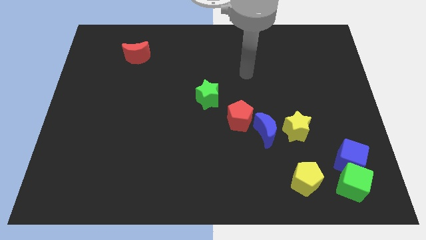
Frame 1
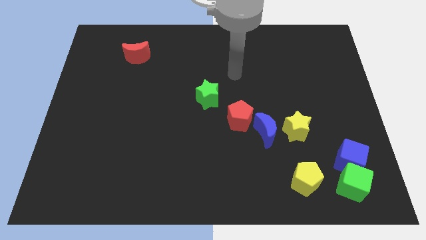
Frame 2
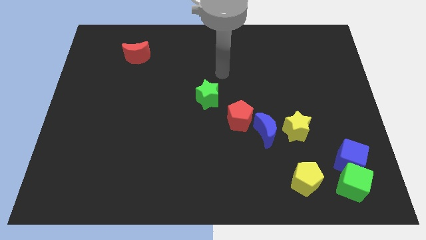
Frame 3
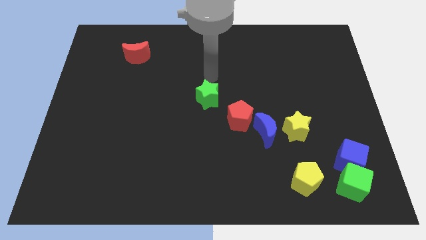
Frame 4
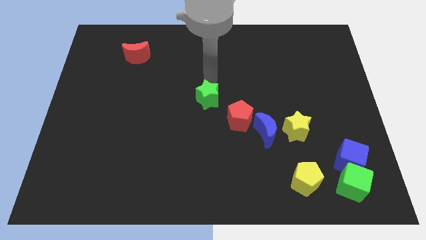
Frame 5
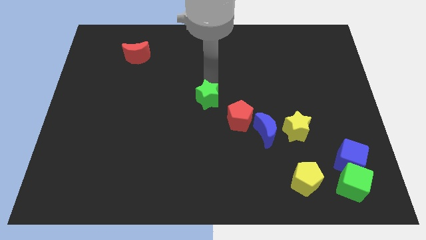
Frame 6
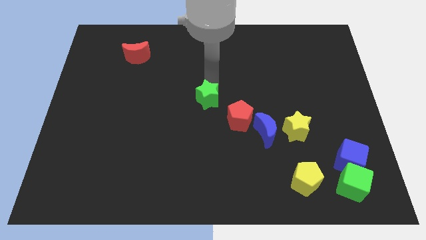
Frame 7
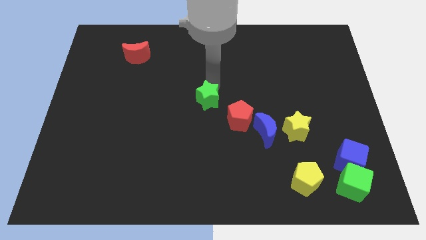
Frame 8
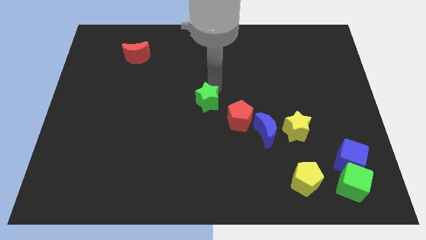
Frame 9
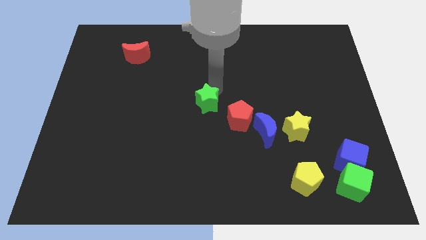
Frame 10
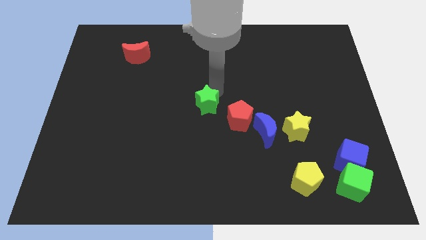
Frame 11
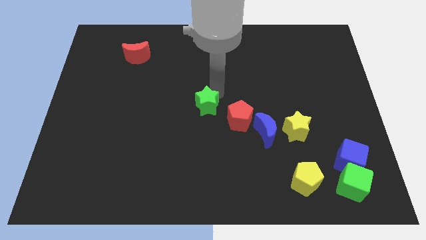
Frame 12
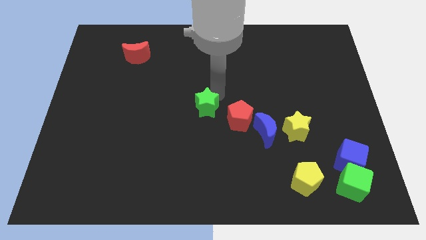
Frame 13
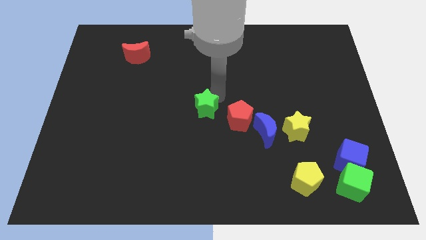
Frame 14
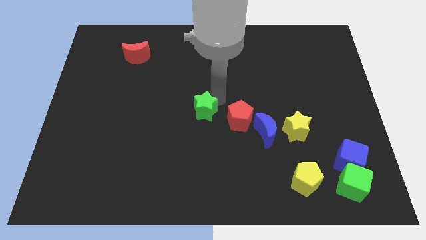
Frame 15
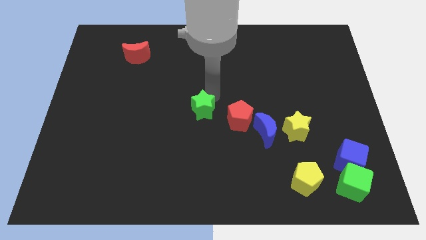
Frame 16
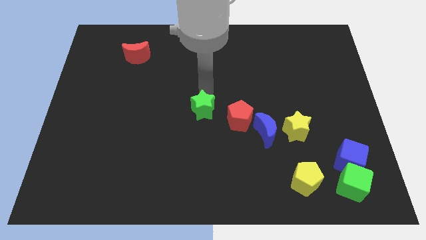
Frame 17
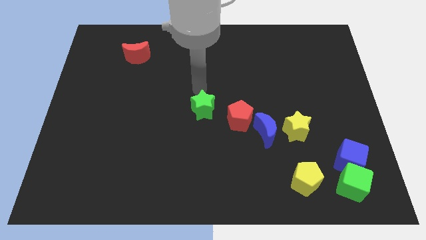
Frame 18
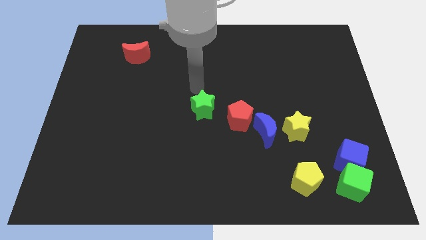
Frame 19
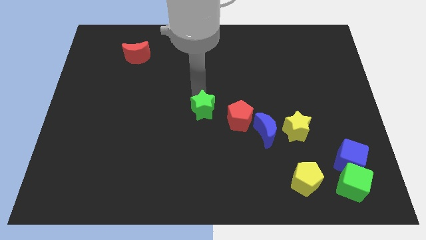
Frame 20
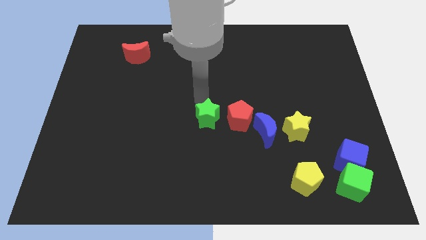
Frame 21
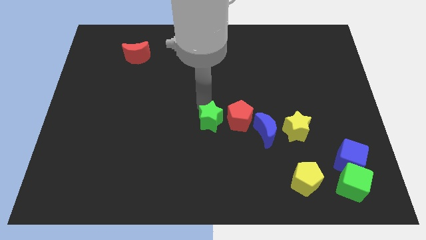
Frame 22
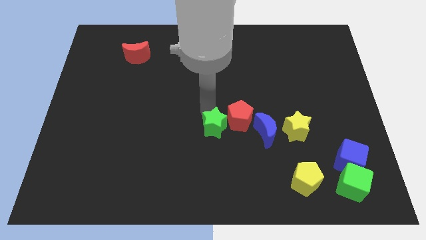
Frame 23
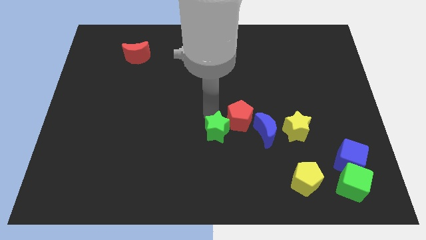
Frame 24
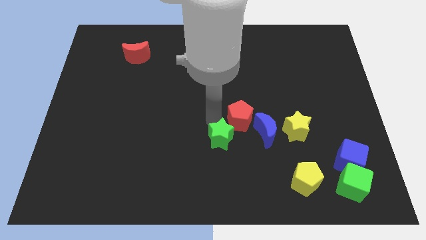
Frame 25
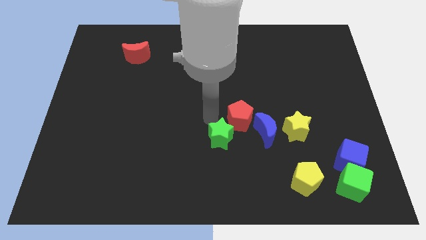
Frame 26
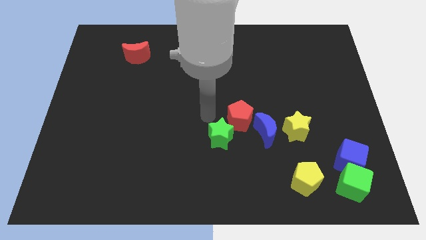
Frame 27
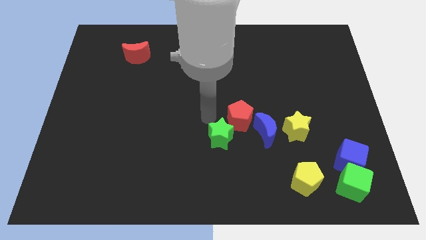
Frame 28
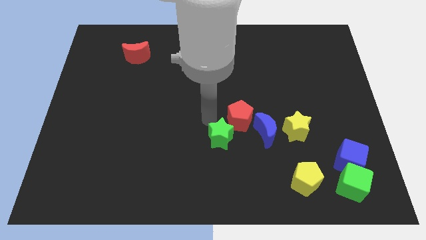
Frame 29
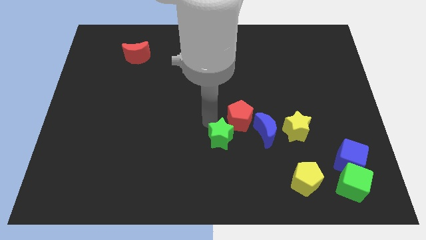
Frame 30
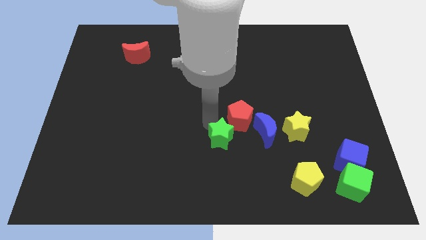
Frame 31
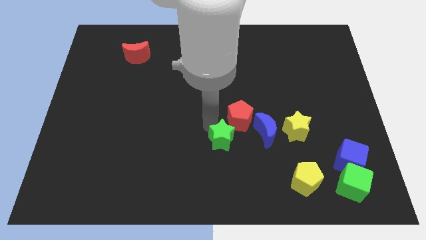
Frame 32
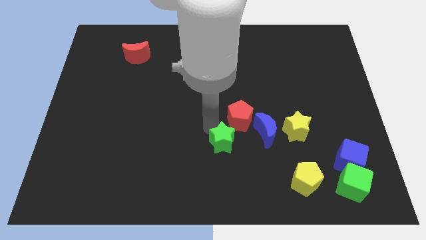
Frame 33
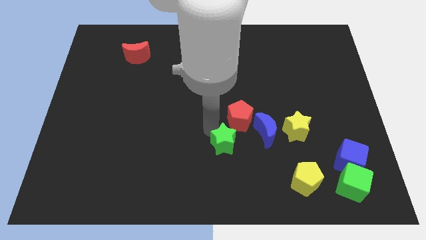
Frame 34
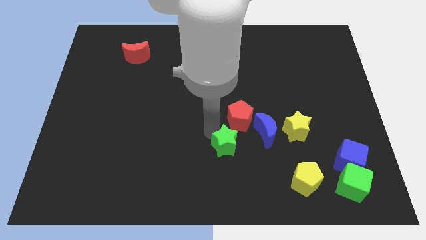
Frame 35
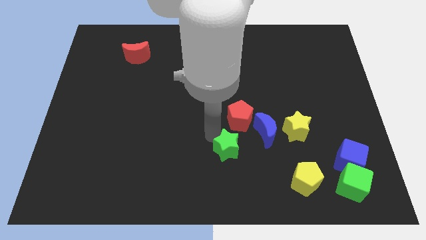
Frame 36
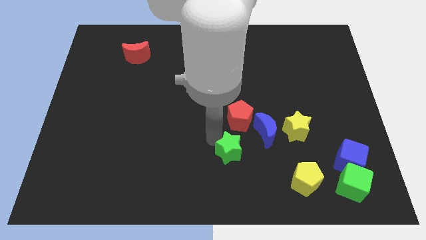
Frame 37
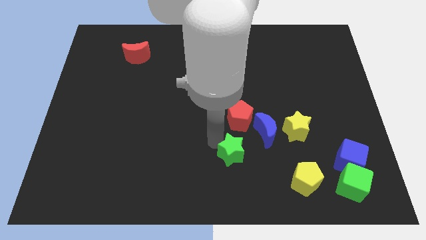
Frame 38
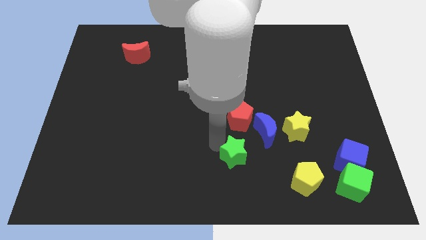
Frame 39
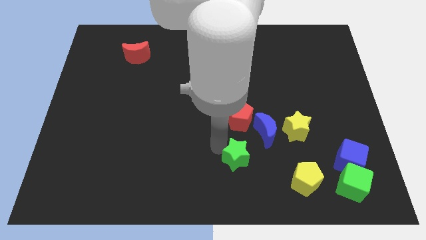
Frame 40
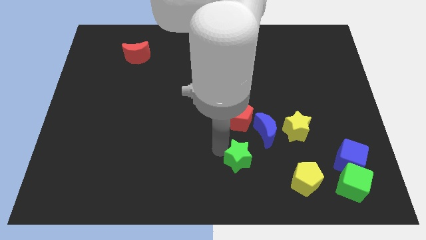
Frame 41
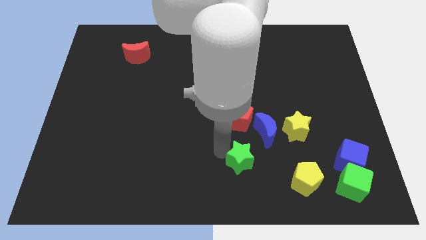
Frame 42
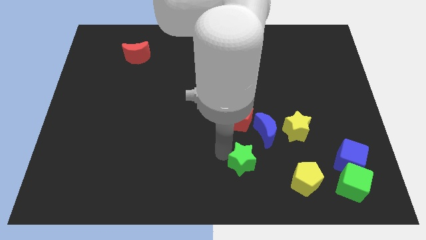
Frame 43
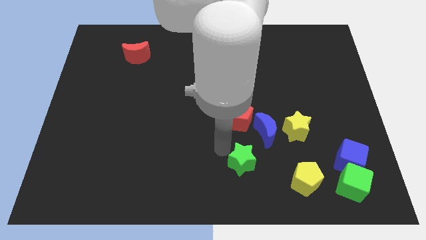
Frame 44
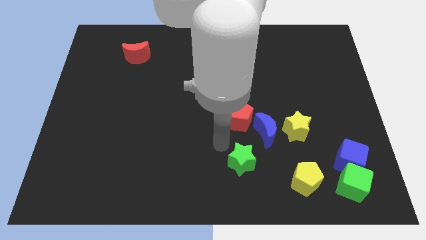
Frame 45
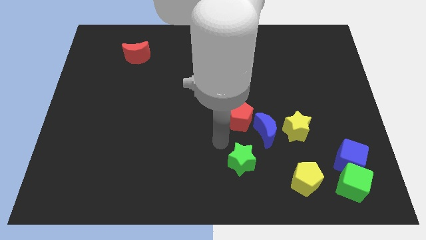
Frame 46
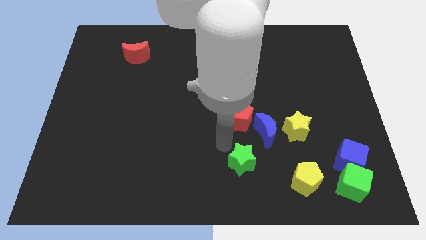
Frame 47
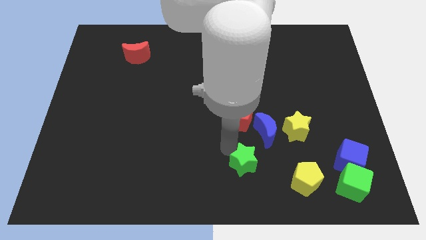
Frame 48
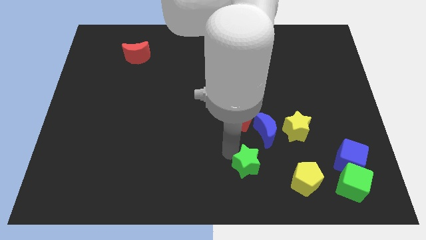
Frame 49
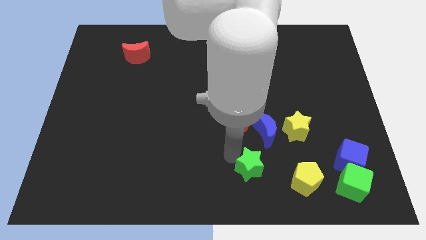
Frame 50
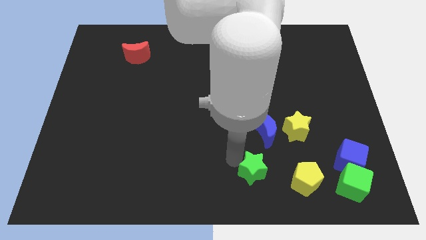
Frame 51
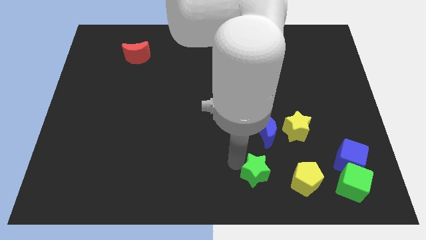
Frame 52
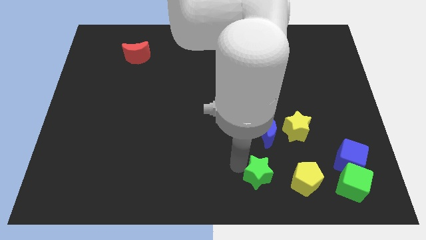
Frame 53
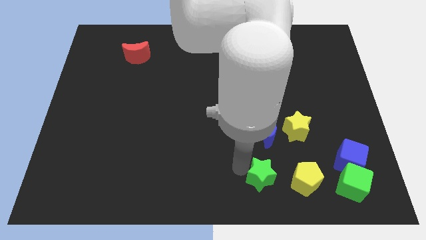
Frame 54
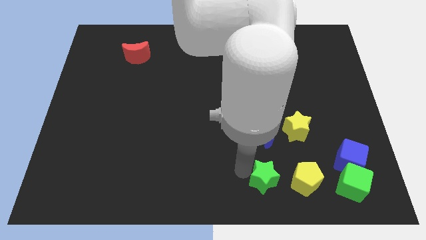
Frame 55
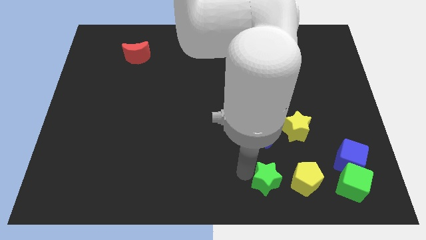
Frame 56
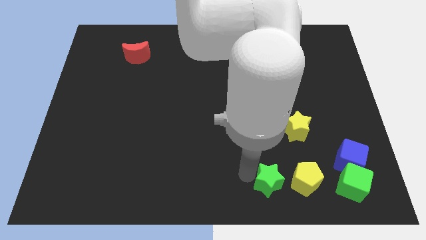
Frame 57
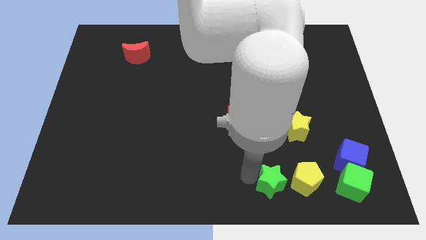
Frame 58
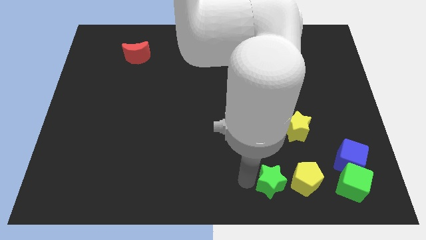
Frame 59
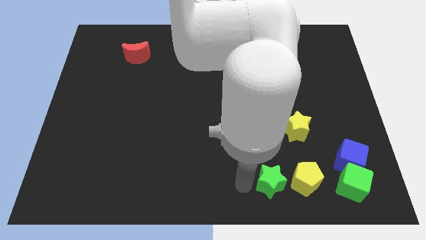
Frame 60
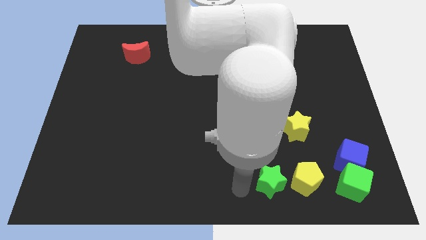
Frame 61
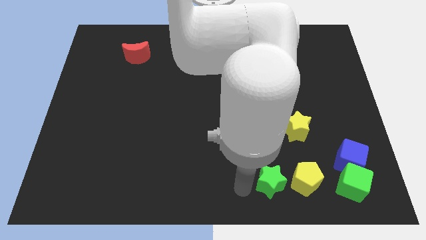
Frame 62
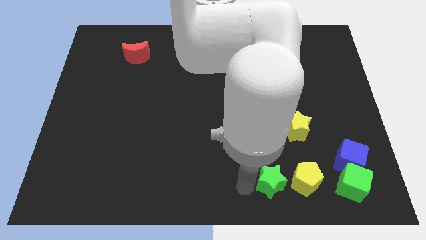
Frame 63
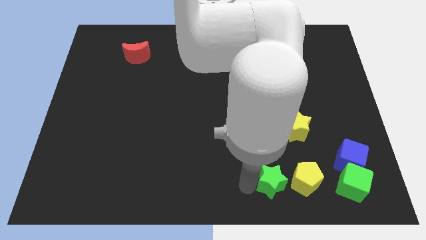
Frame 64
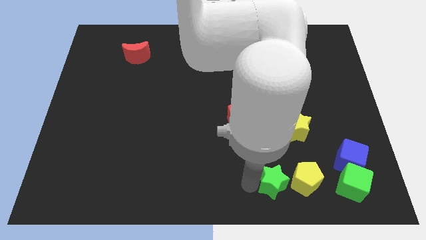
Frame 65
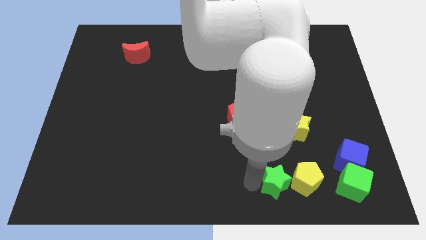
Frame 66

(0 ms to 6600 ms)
push the green star close to the yellow pentagon
